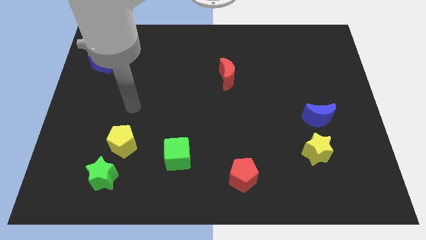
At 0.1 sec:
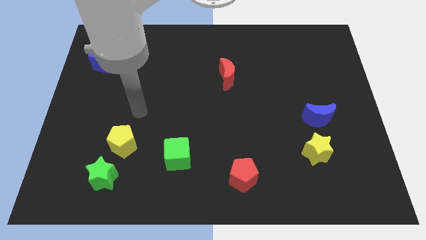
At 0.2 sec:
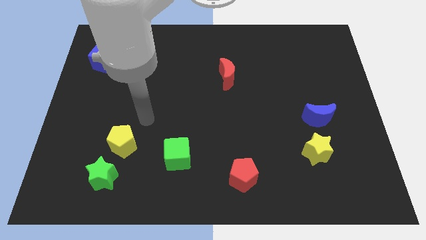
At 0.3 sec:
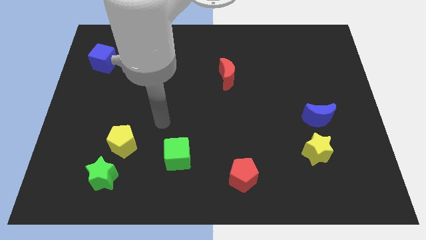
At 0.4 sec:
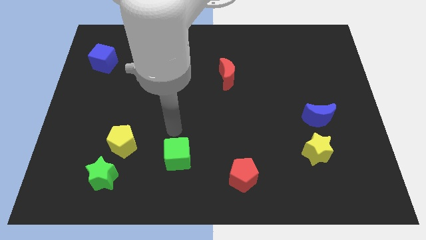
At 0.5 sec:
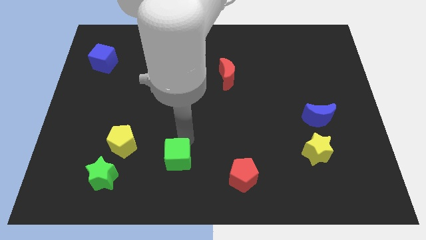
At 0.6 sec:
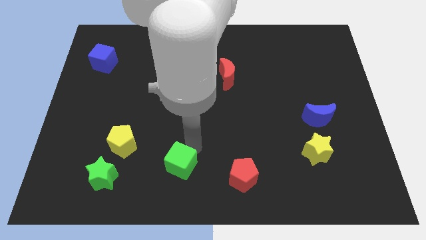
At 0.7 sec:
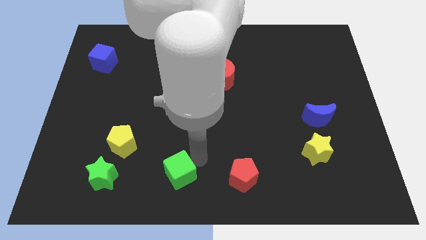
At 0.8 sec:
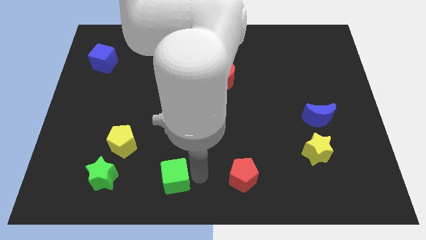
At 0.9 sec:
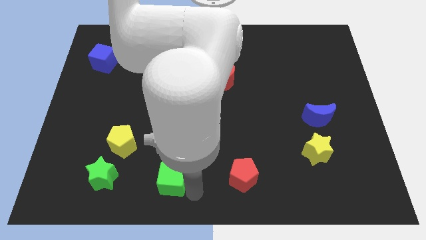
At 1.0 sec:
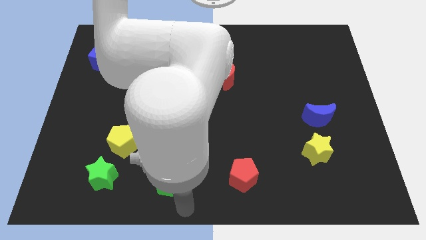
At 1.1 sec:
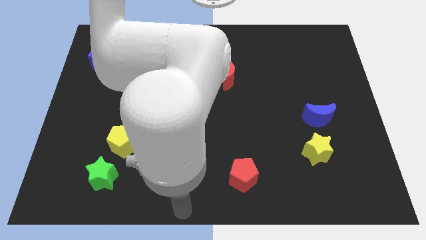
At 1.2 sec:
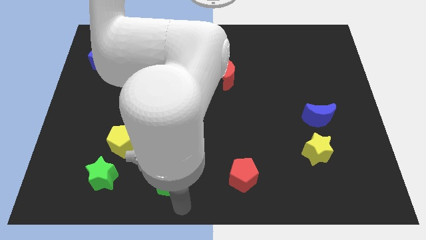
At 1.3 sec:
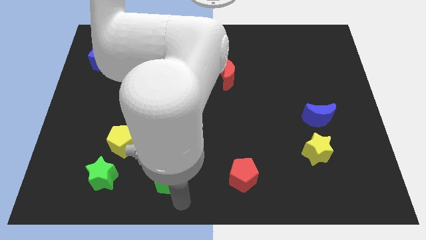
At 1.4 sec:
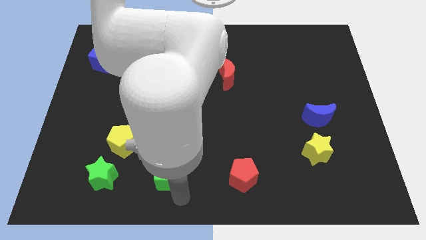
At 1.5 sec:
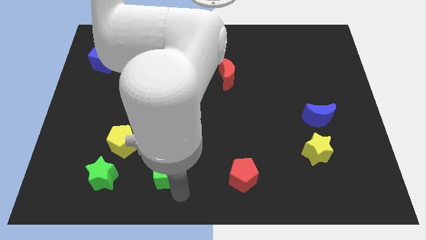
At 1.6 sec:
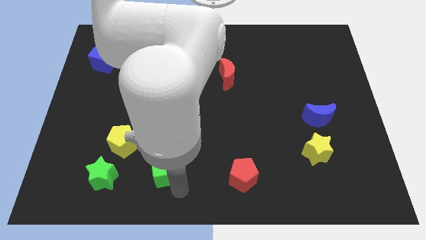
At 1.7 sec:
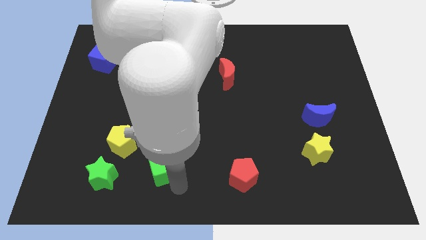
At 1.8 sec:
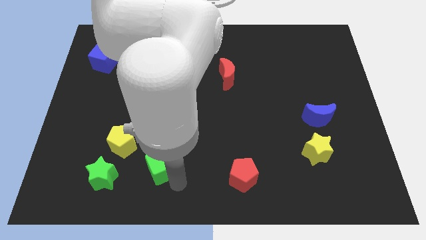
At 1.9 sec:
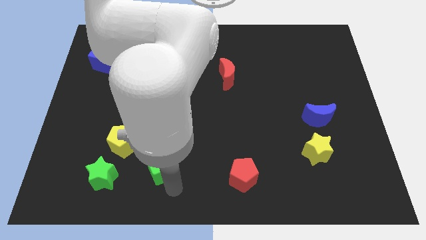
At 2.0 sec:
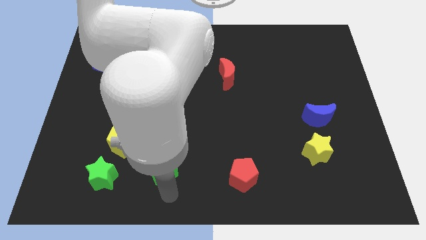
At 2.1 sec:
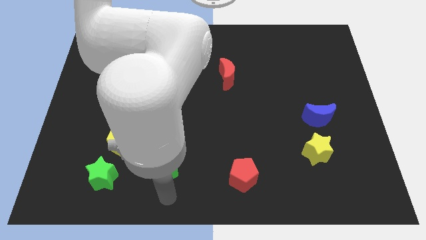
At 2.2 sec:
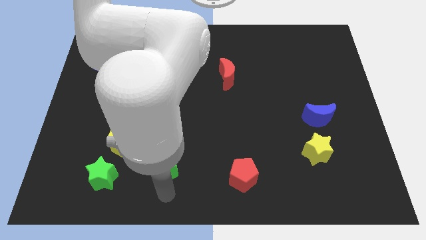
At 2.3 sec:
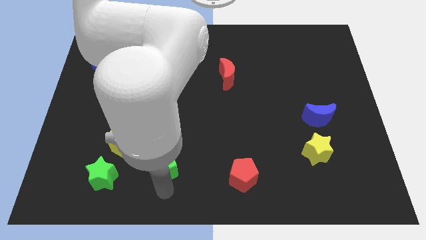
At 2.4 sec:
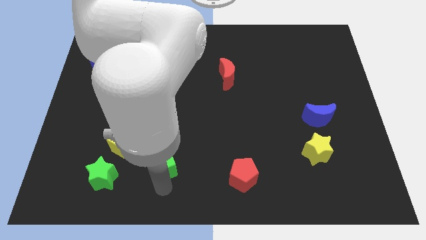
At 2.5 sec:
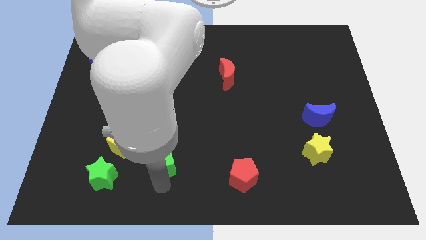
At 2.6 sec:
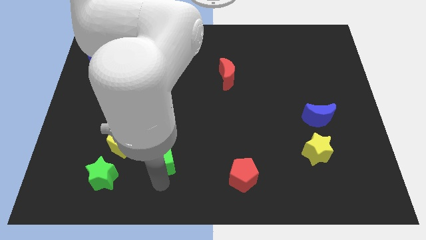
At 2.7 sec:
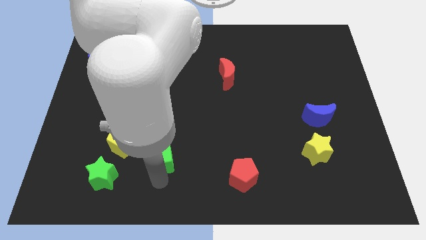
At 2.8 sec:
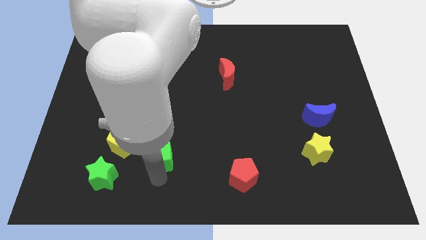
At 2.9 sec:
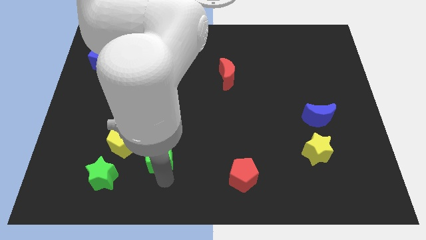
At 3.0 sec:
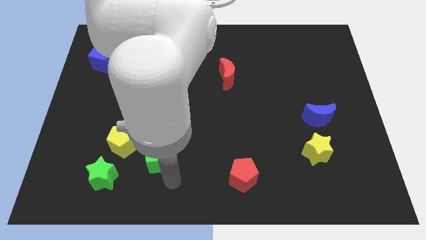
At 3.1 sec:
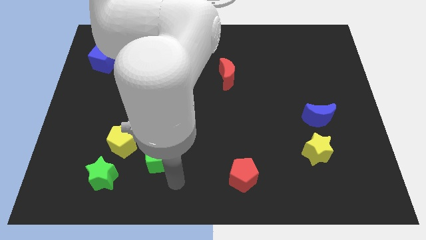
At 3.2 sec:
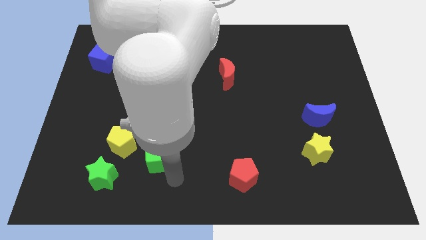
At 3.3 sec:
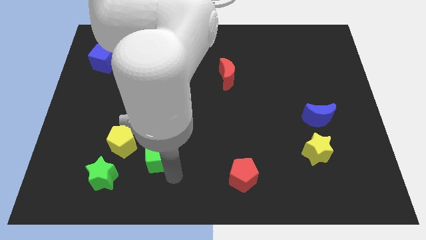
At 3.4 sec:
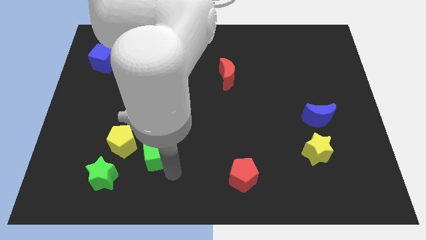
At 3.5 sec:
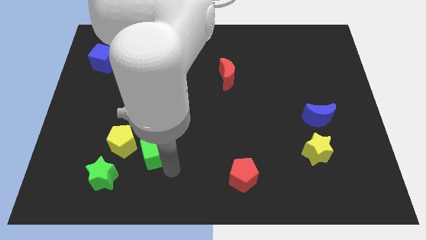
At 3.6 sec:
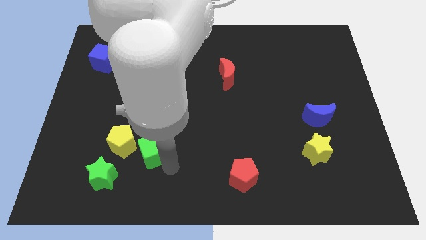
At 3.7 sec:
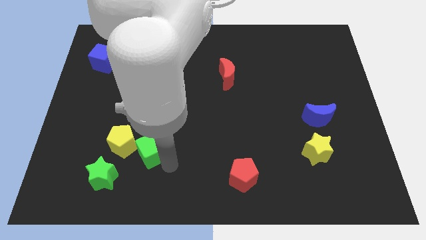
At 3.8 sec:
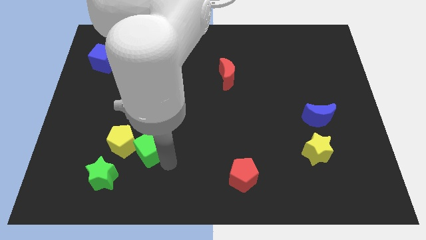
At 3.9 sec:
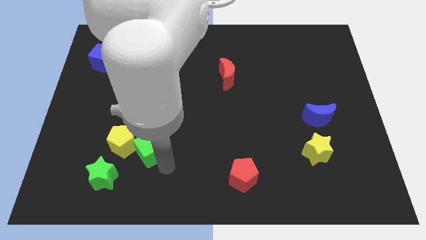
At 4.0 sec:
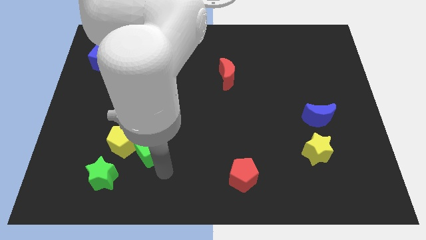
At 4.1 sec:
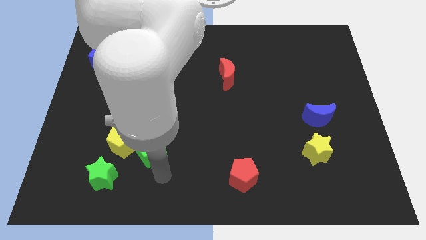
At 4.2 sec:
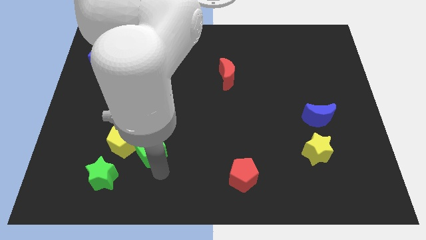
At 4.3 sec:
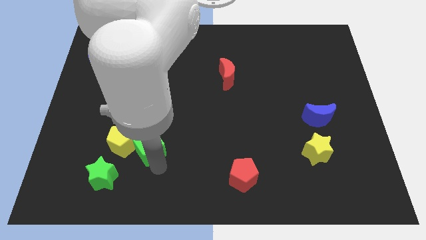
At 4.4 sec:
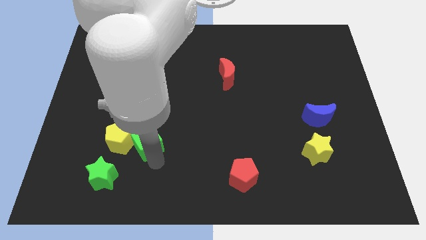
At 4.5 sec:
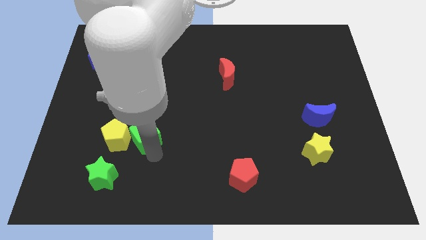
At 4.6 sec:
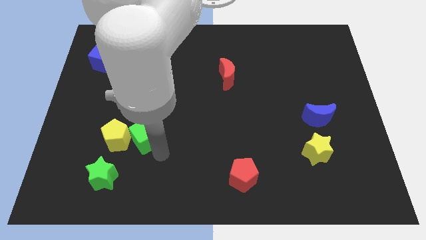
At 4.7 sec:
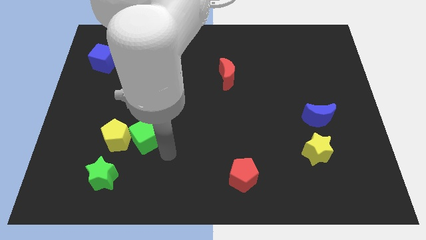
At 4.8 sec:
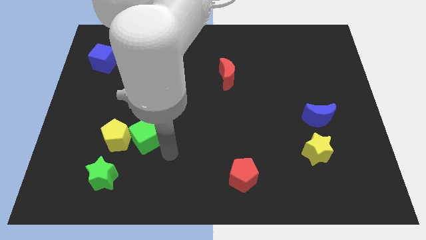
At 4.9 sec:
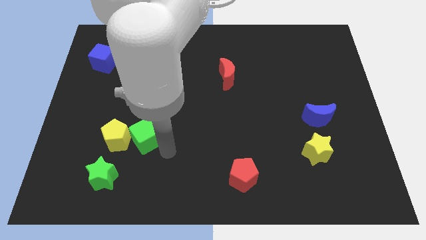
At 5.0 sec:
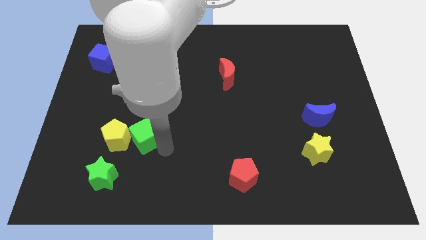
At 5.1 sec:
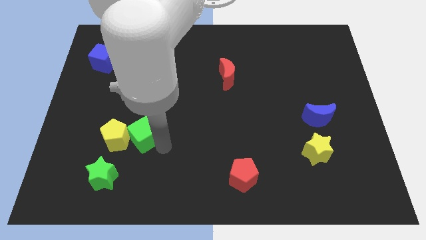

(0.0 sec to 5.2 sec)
slightly move the green cube to the left

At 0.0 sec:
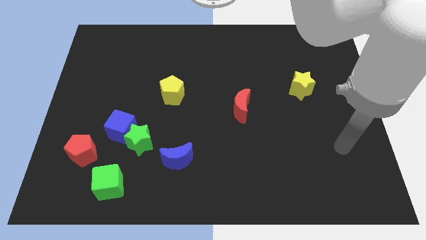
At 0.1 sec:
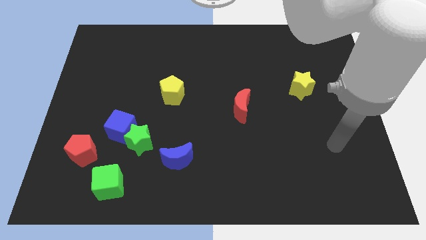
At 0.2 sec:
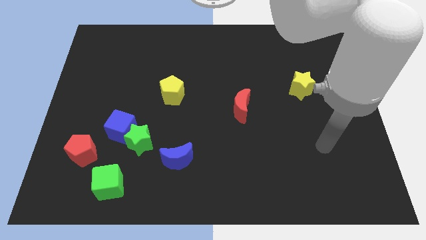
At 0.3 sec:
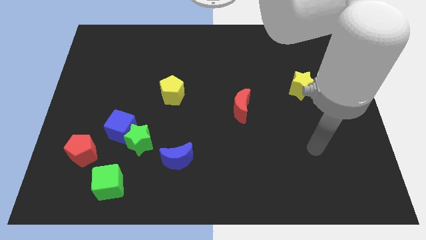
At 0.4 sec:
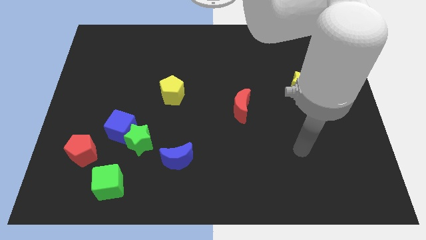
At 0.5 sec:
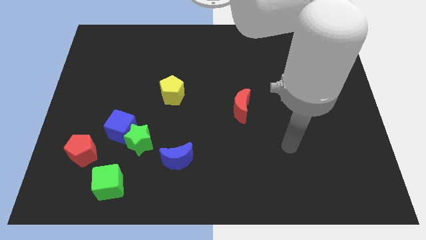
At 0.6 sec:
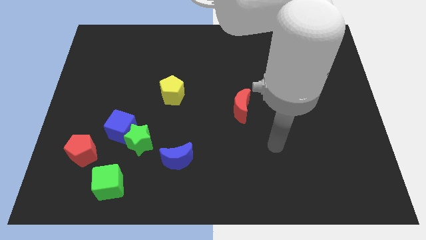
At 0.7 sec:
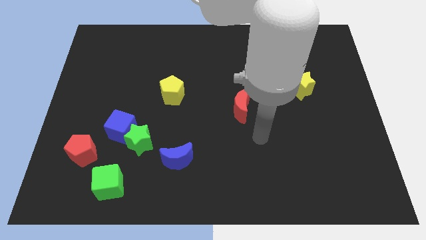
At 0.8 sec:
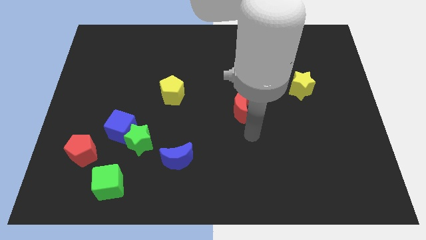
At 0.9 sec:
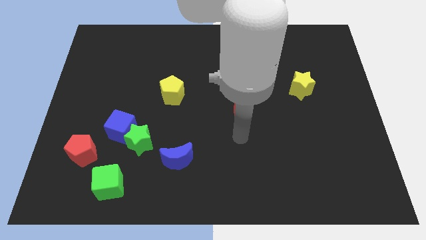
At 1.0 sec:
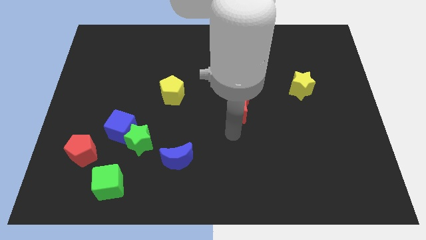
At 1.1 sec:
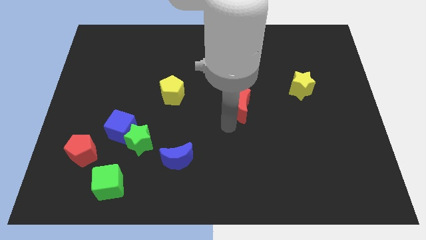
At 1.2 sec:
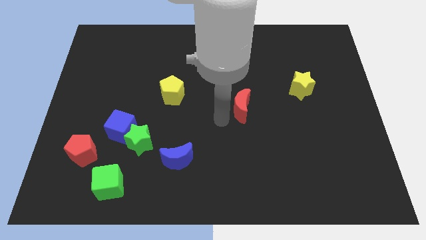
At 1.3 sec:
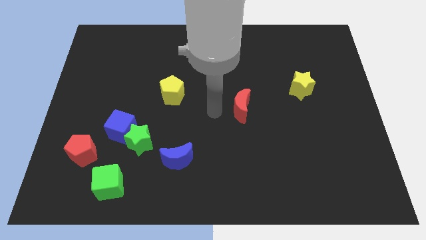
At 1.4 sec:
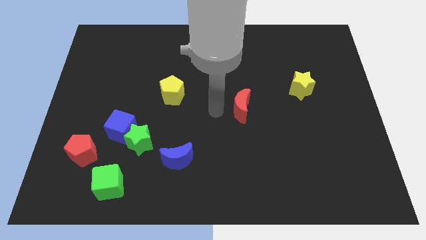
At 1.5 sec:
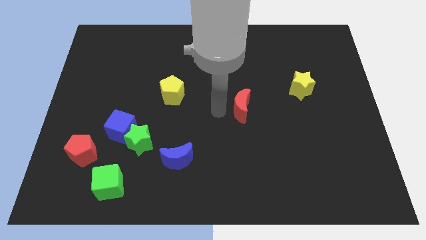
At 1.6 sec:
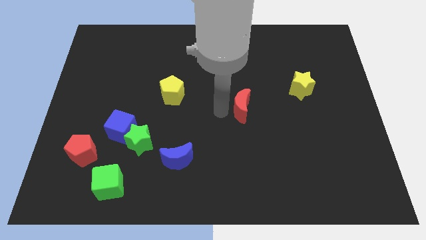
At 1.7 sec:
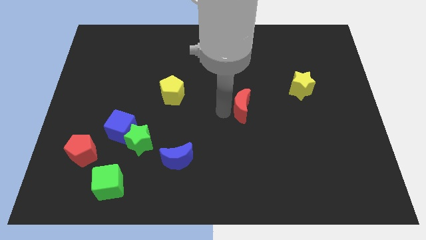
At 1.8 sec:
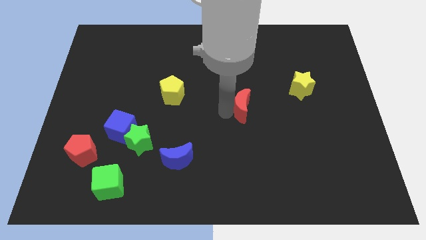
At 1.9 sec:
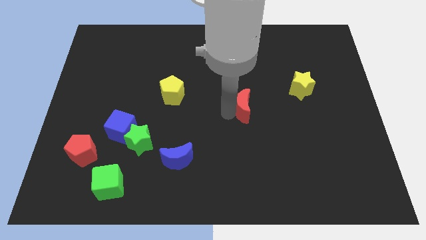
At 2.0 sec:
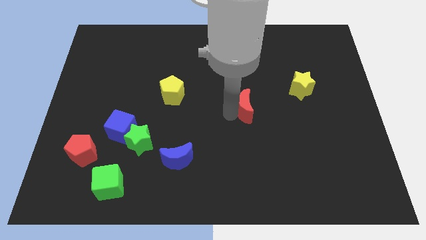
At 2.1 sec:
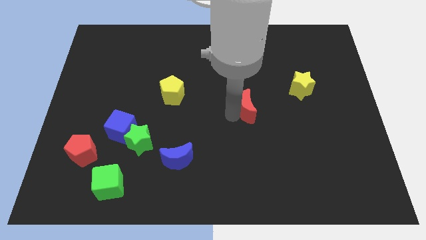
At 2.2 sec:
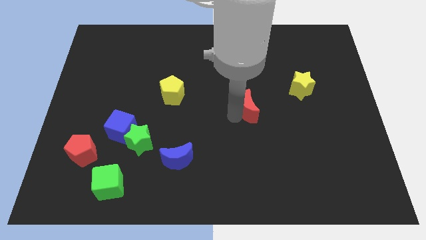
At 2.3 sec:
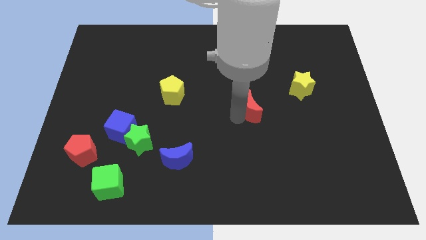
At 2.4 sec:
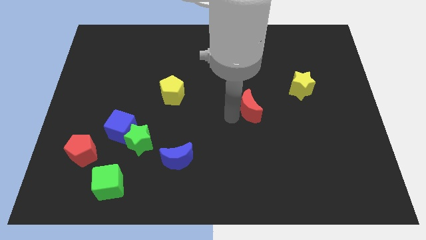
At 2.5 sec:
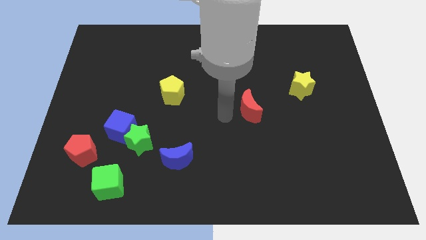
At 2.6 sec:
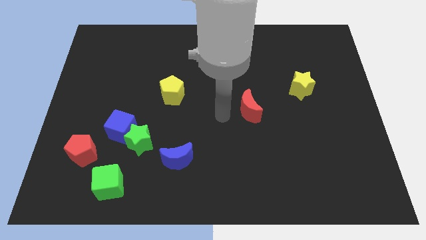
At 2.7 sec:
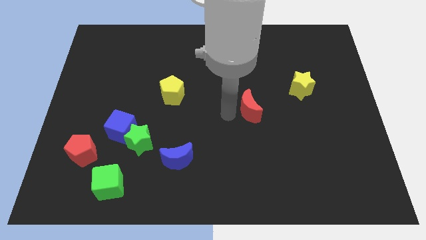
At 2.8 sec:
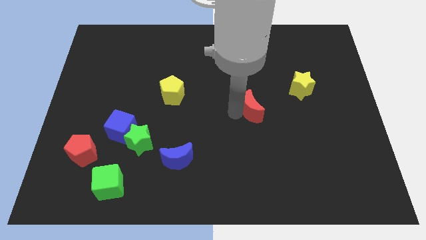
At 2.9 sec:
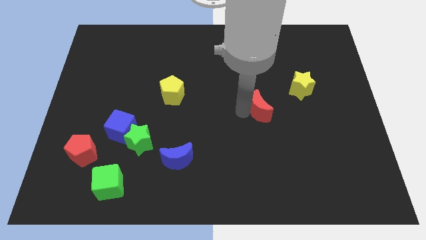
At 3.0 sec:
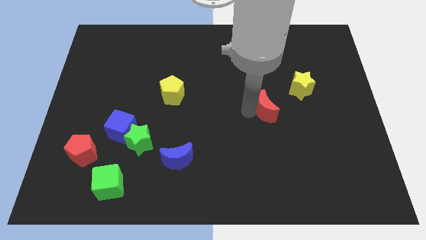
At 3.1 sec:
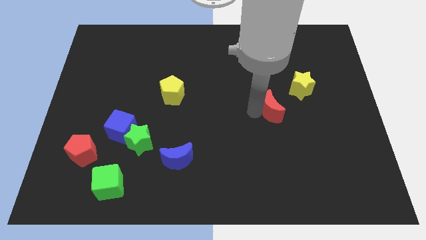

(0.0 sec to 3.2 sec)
move the red moon right slightly
